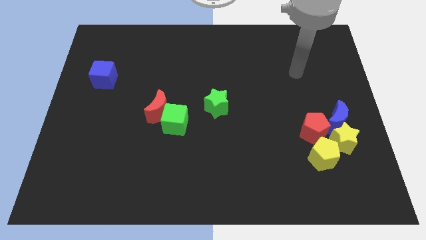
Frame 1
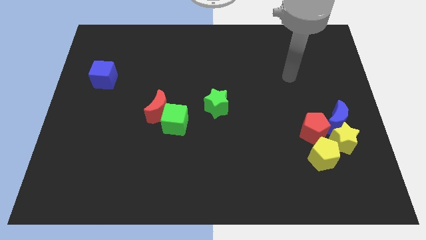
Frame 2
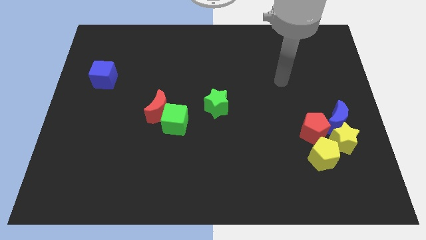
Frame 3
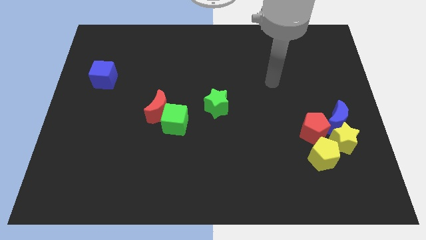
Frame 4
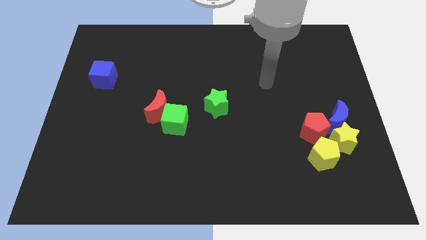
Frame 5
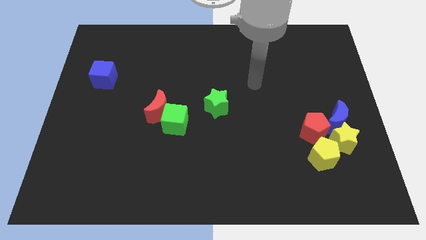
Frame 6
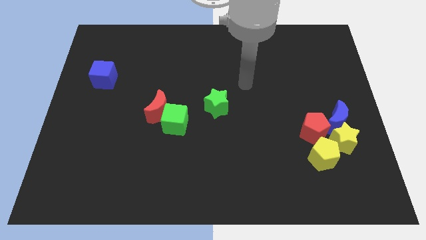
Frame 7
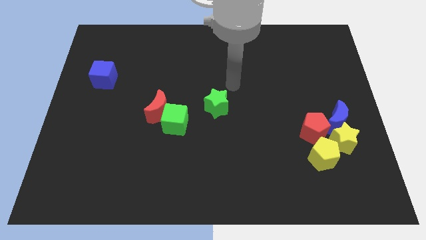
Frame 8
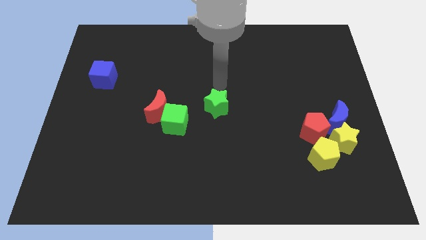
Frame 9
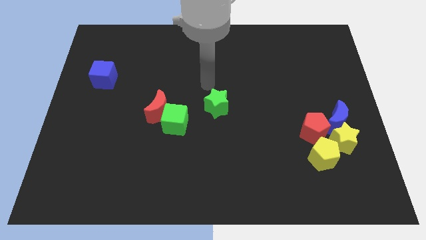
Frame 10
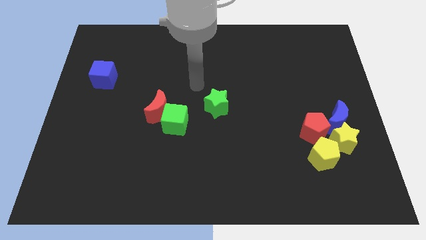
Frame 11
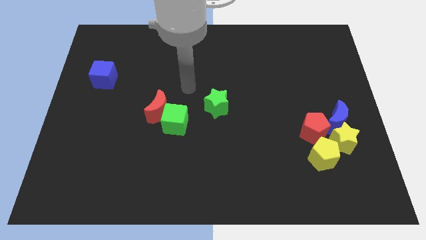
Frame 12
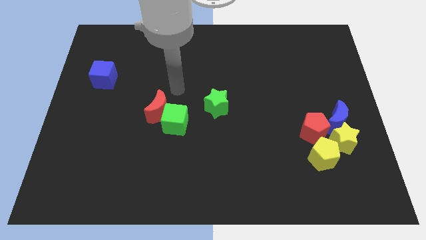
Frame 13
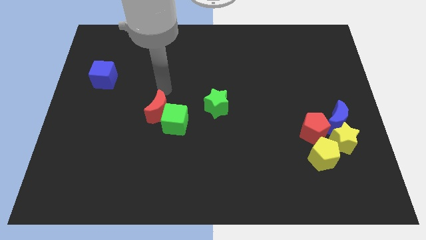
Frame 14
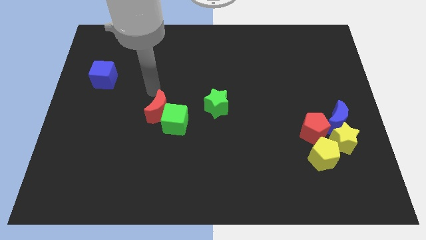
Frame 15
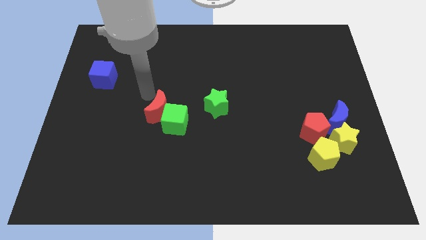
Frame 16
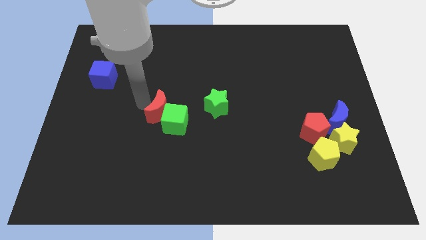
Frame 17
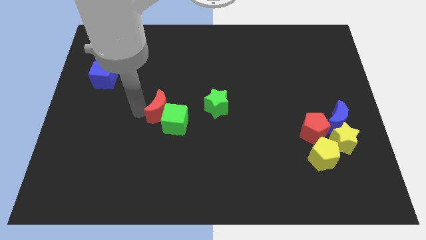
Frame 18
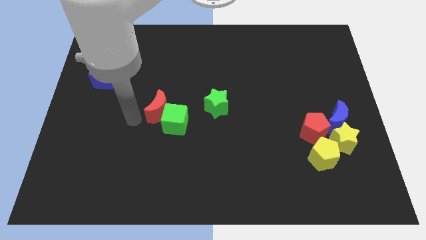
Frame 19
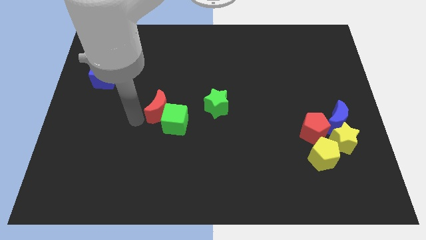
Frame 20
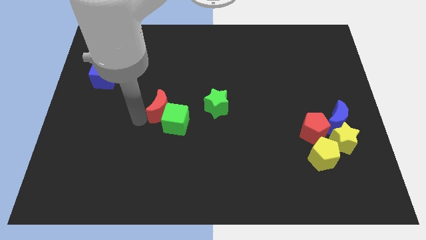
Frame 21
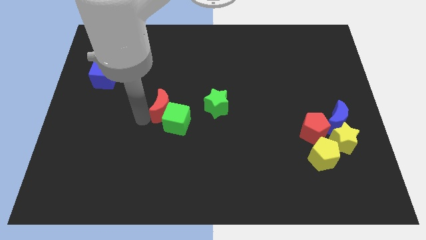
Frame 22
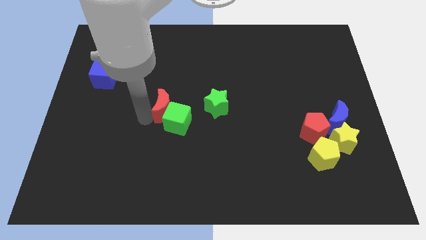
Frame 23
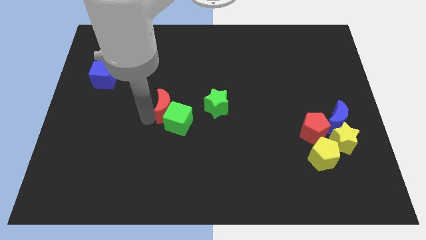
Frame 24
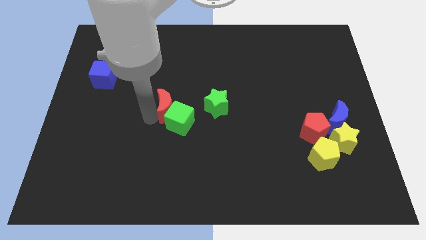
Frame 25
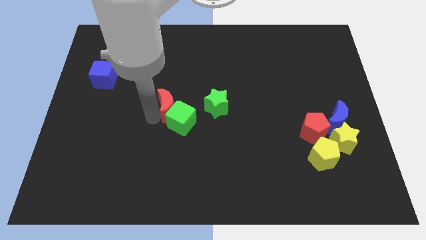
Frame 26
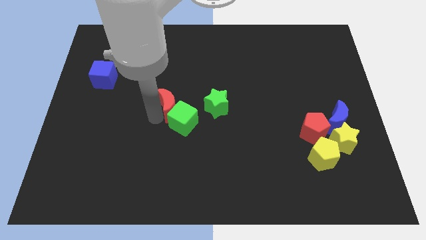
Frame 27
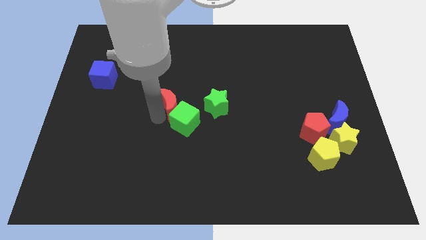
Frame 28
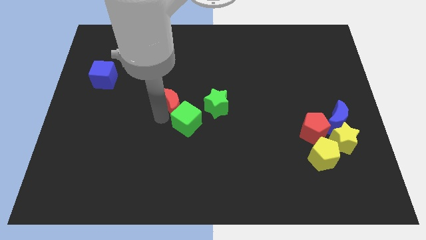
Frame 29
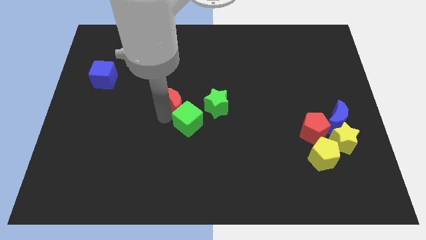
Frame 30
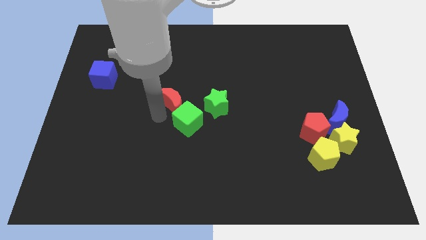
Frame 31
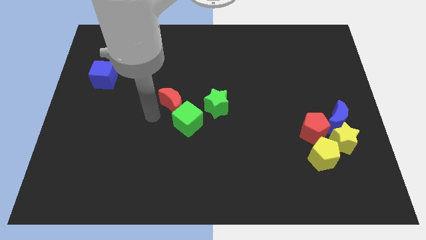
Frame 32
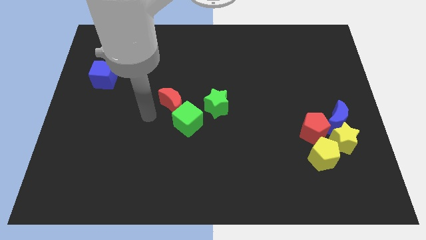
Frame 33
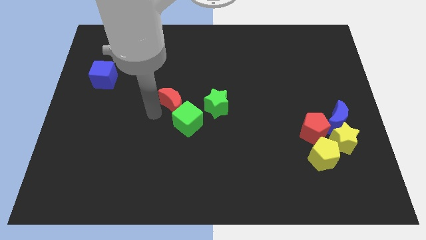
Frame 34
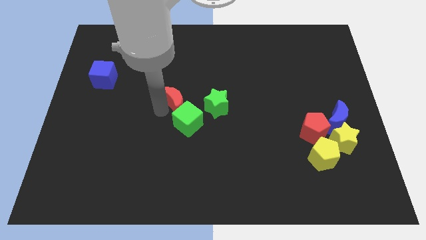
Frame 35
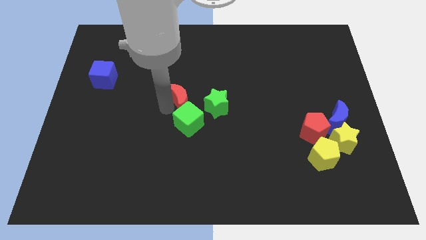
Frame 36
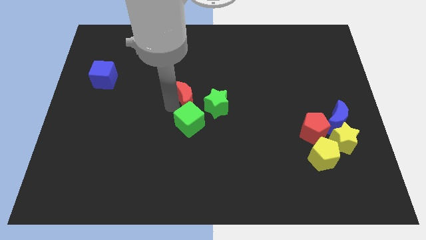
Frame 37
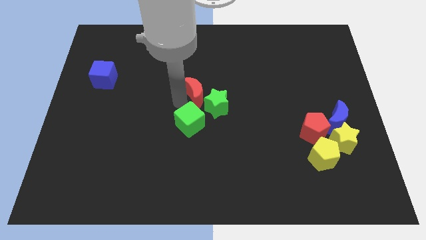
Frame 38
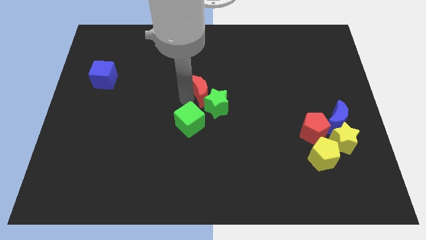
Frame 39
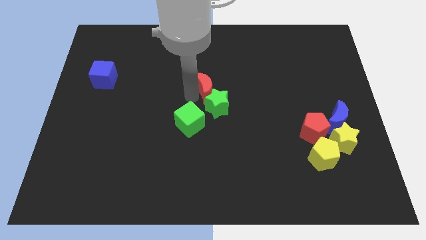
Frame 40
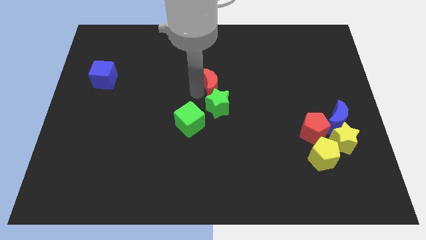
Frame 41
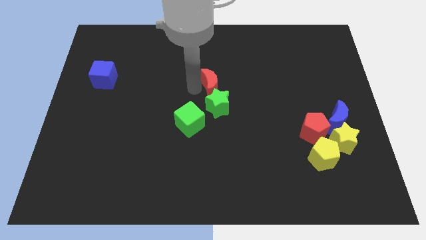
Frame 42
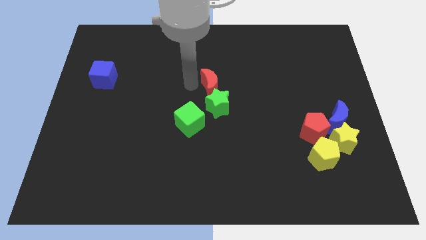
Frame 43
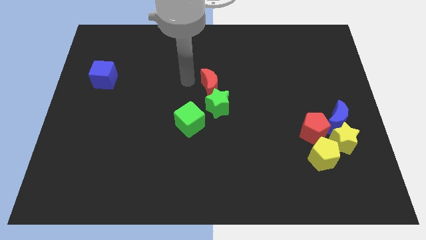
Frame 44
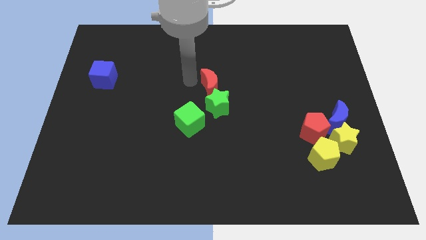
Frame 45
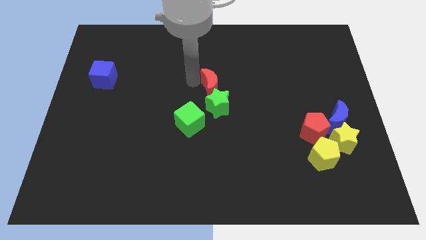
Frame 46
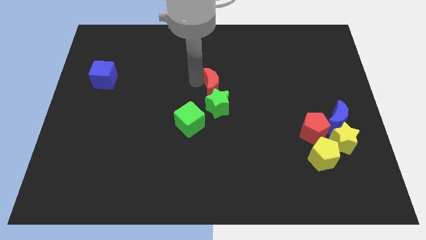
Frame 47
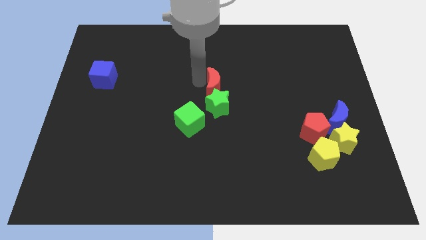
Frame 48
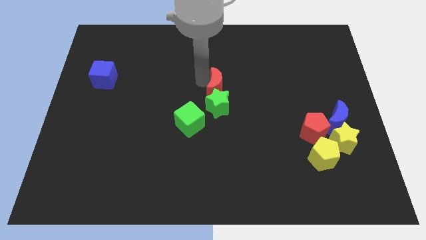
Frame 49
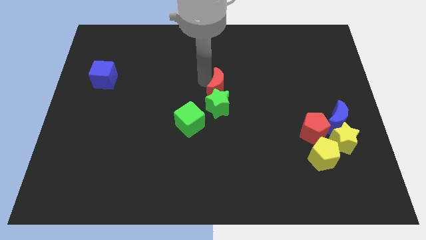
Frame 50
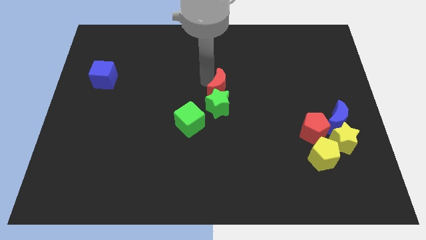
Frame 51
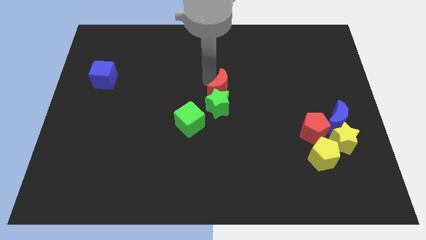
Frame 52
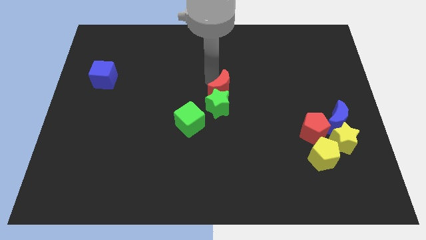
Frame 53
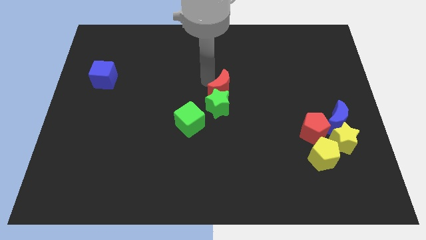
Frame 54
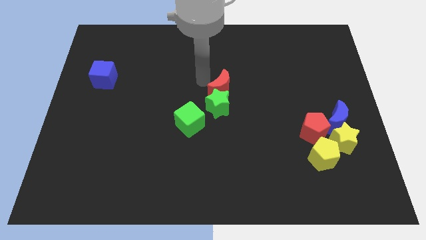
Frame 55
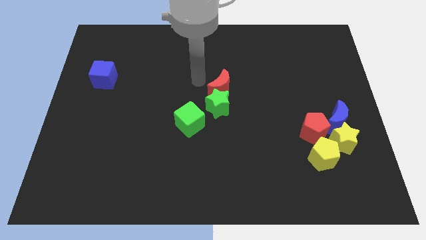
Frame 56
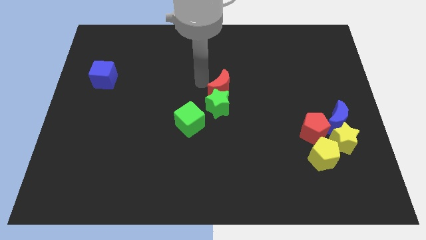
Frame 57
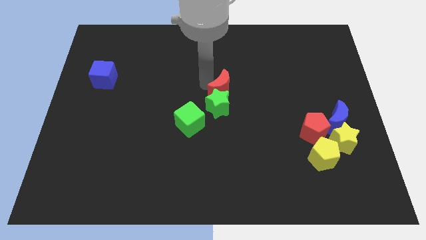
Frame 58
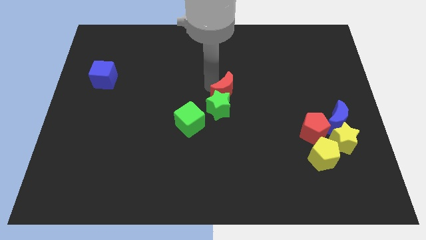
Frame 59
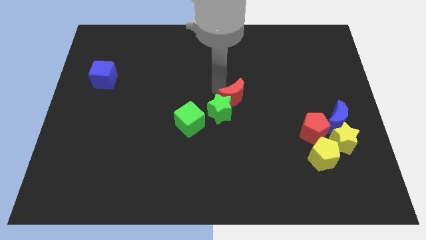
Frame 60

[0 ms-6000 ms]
move the red moon to the right of the green star

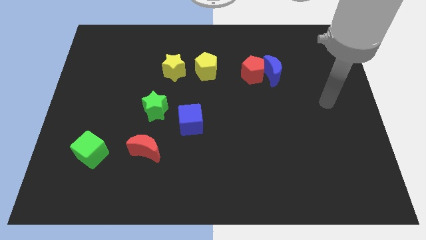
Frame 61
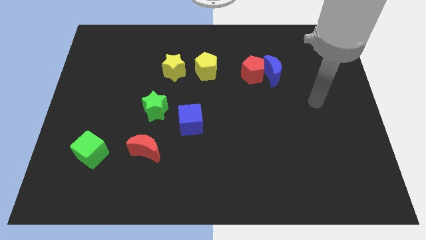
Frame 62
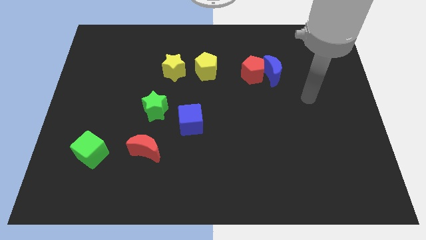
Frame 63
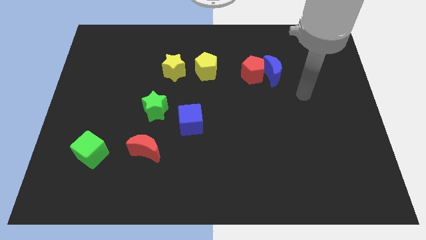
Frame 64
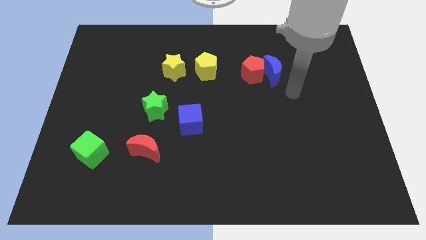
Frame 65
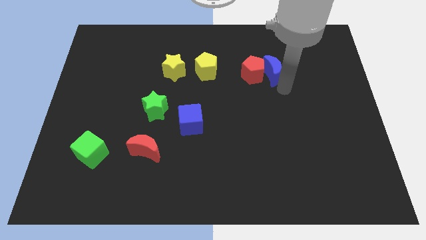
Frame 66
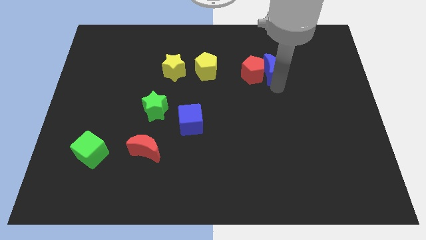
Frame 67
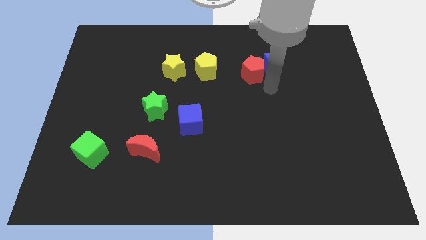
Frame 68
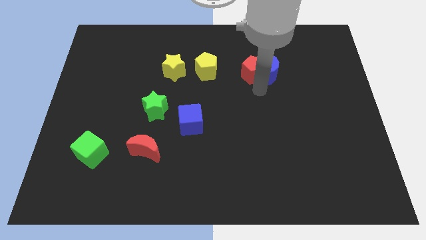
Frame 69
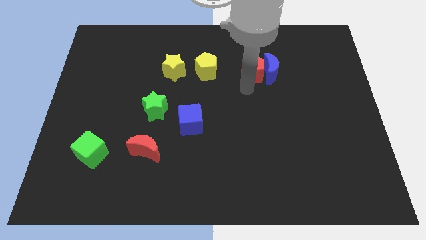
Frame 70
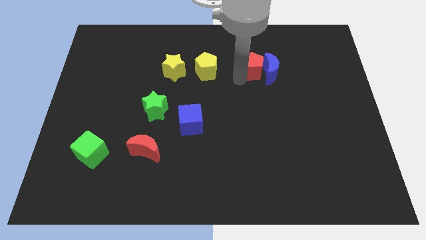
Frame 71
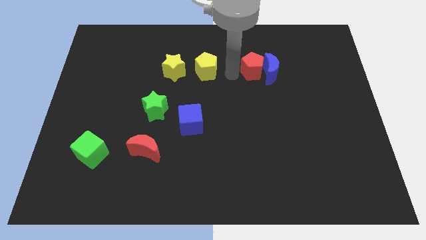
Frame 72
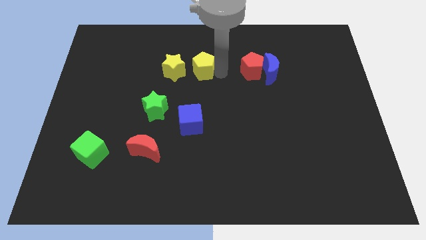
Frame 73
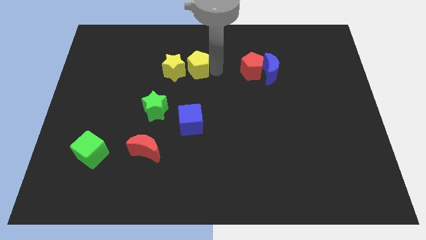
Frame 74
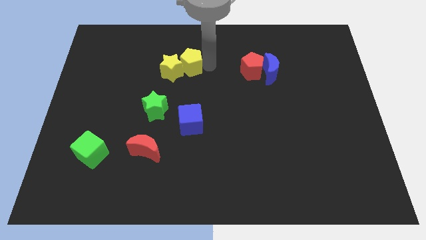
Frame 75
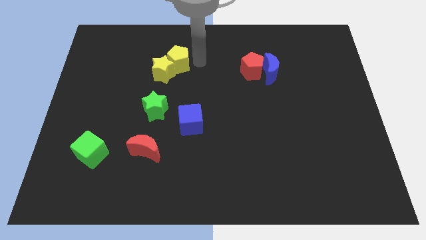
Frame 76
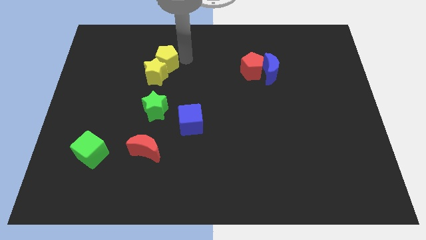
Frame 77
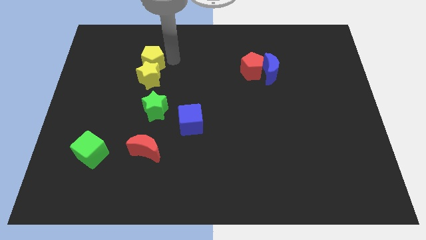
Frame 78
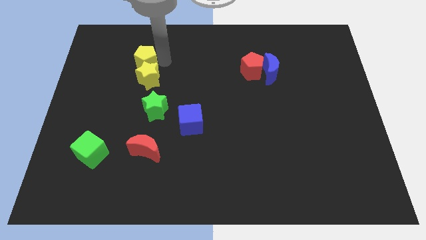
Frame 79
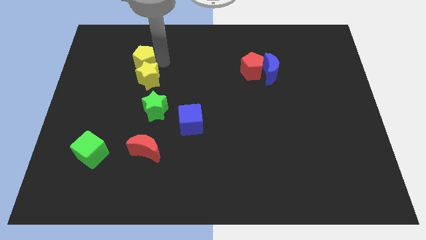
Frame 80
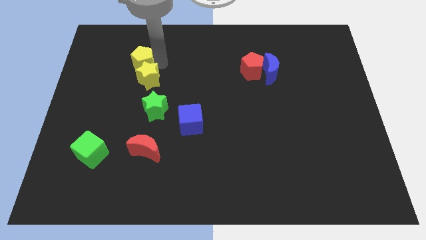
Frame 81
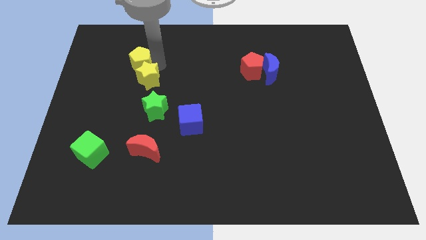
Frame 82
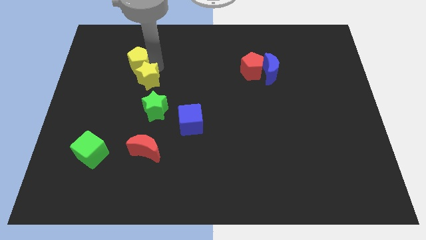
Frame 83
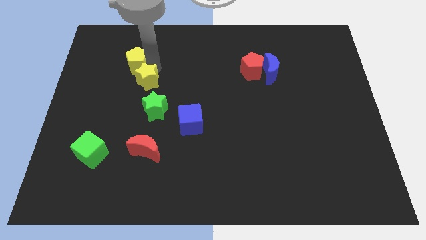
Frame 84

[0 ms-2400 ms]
slide the yellow star to the top left side of the green star
